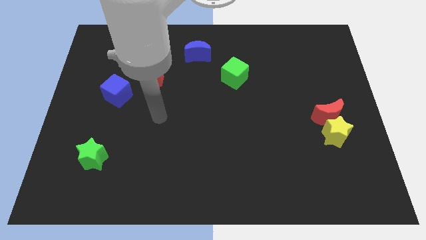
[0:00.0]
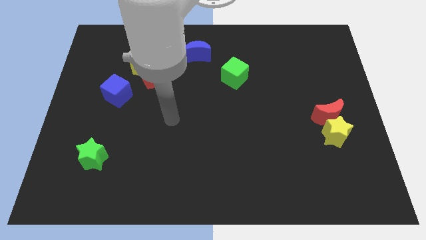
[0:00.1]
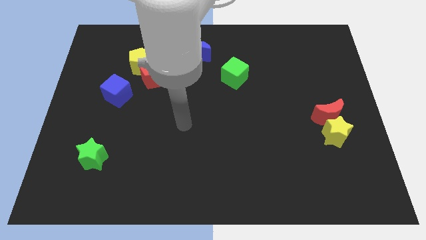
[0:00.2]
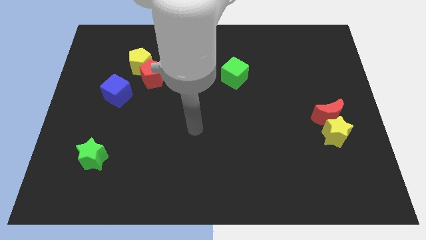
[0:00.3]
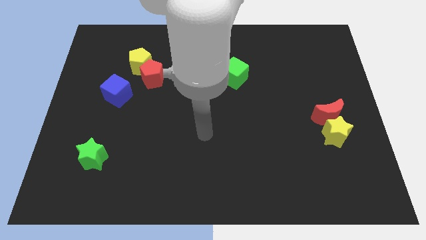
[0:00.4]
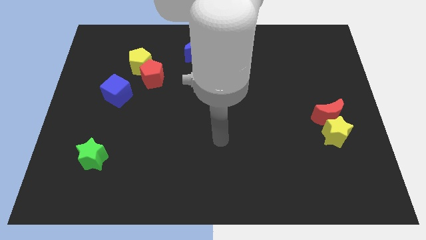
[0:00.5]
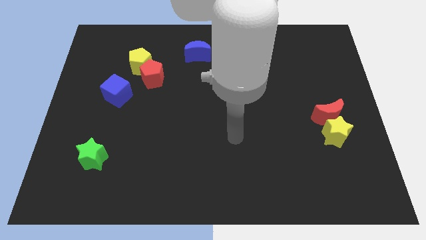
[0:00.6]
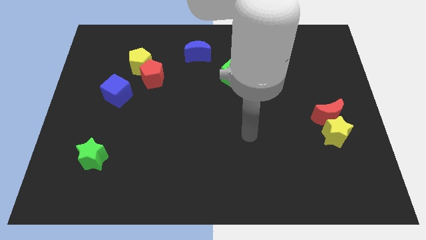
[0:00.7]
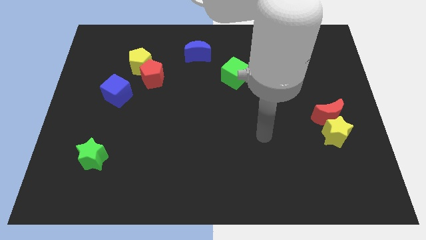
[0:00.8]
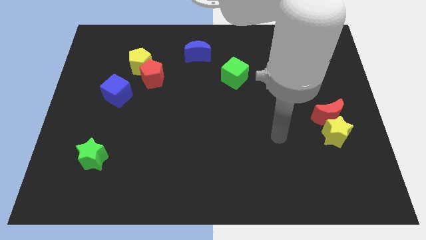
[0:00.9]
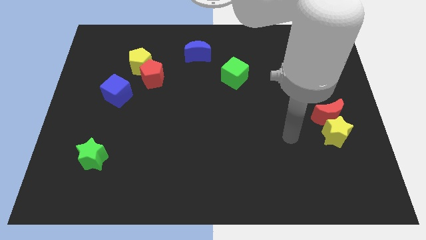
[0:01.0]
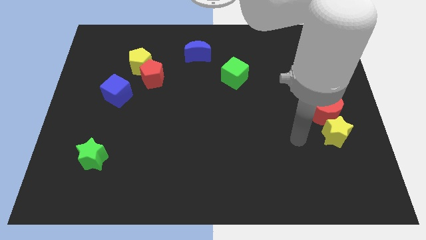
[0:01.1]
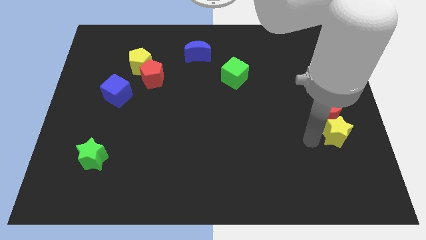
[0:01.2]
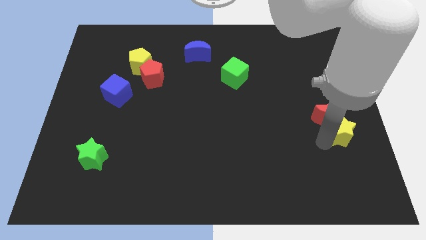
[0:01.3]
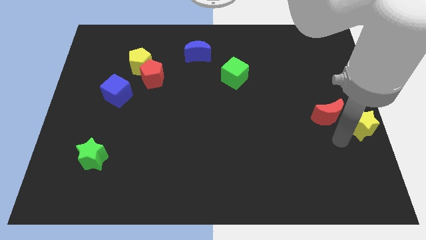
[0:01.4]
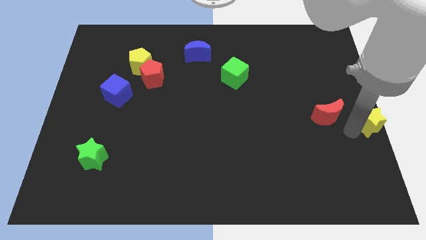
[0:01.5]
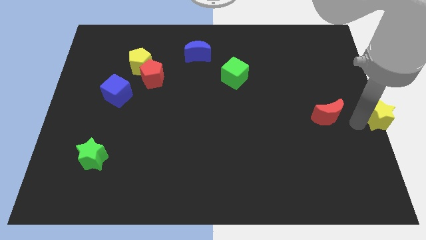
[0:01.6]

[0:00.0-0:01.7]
move the red moon away from the yellow star

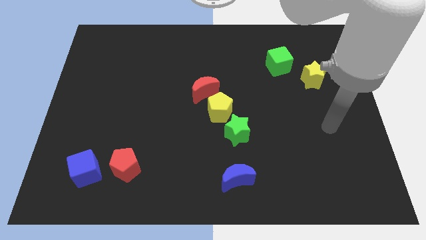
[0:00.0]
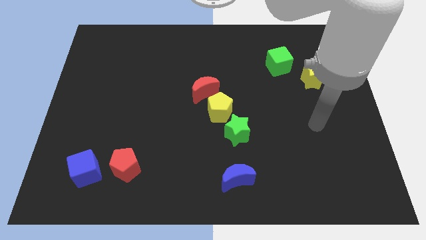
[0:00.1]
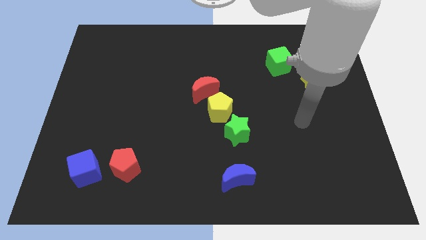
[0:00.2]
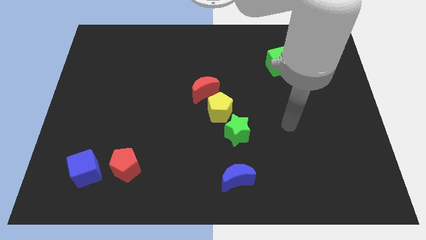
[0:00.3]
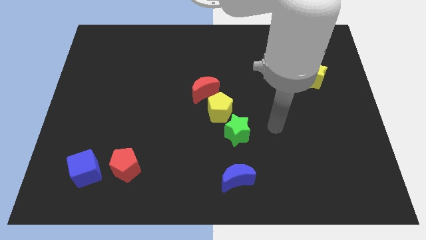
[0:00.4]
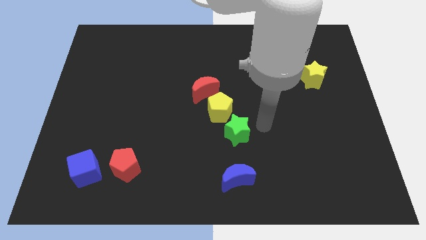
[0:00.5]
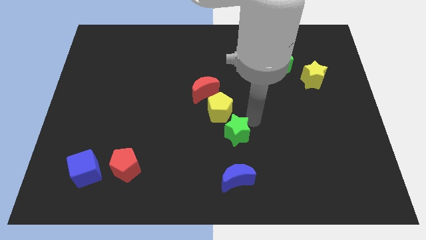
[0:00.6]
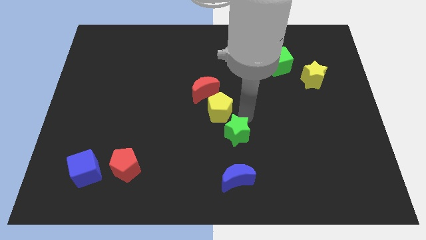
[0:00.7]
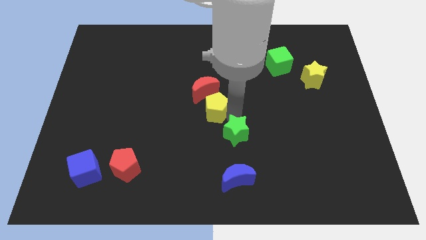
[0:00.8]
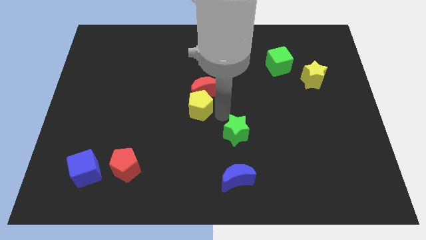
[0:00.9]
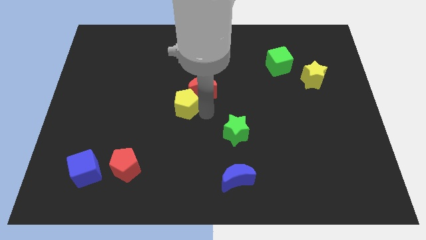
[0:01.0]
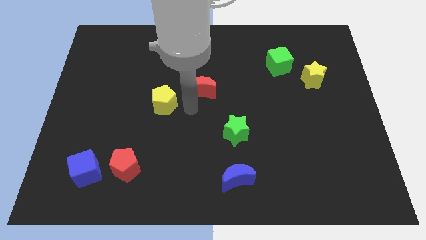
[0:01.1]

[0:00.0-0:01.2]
pull the red moon apart from the yellow pentagon

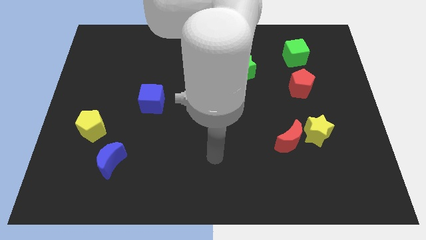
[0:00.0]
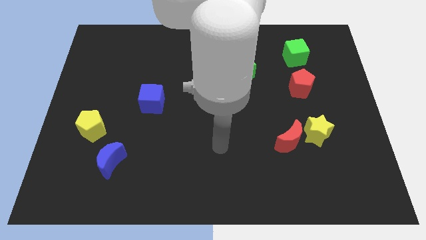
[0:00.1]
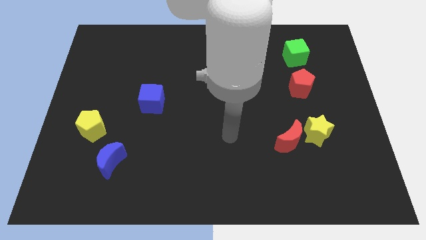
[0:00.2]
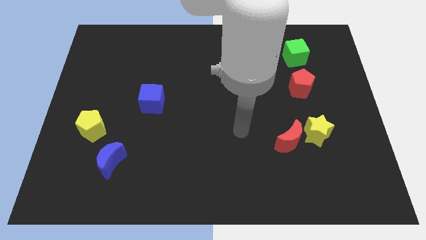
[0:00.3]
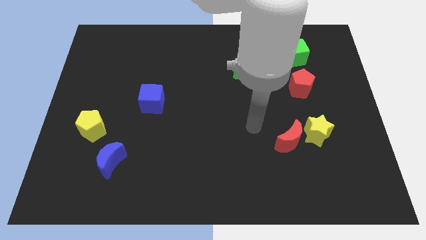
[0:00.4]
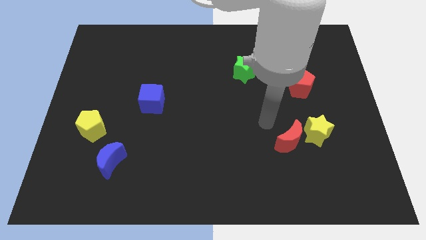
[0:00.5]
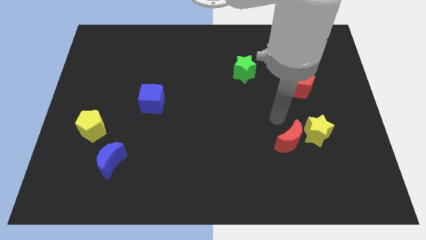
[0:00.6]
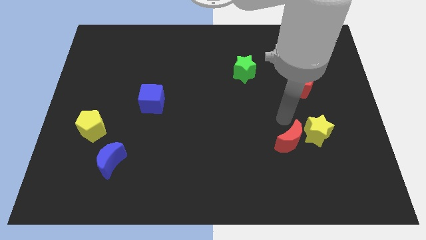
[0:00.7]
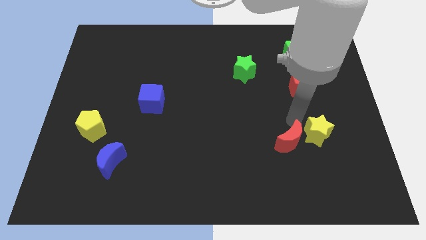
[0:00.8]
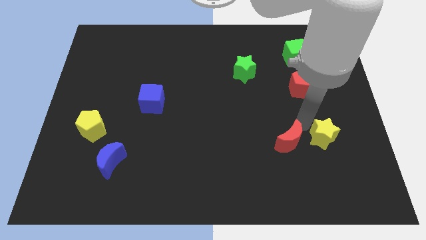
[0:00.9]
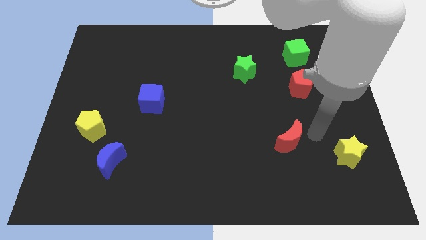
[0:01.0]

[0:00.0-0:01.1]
separate the red moon from the yellow star

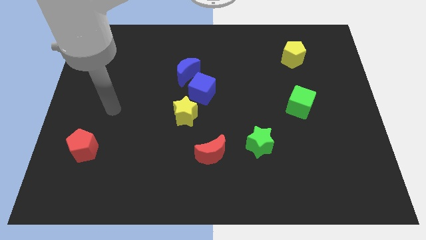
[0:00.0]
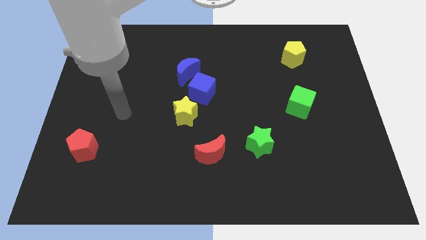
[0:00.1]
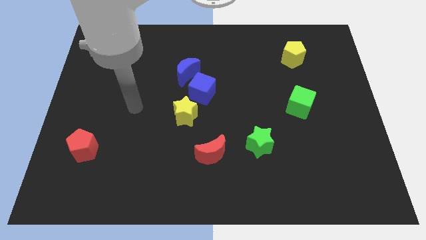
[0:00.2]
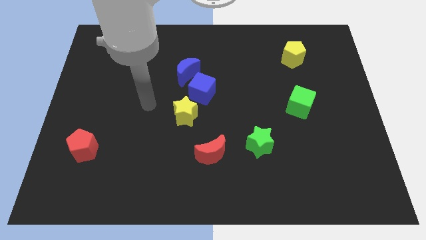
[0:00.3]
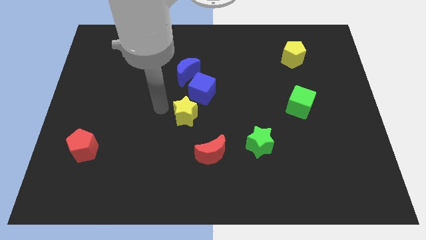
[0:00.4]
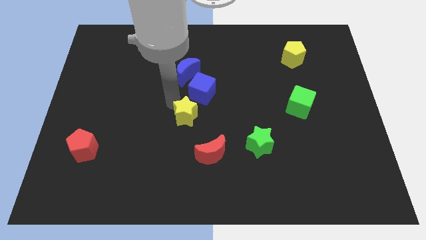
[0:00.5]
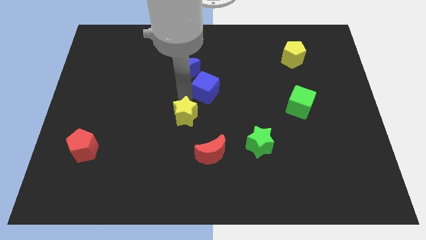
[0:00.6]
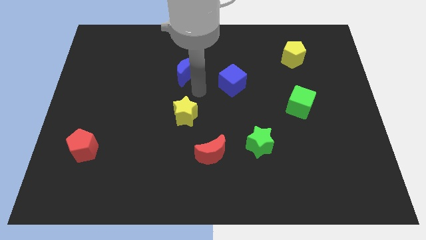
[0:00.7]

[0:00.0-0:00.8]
pull the blue moon apart from the blue cube

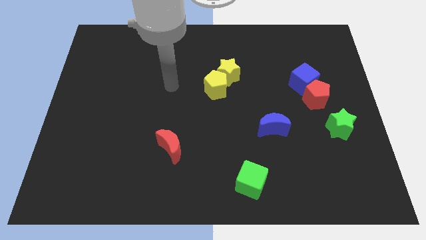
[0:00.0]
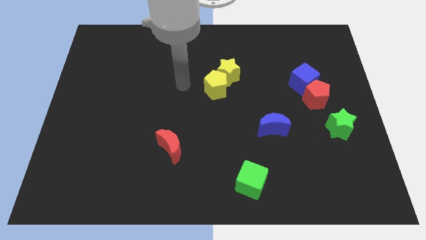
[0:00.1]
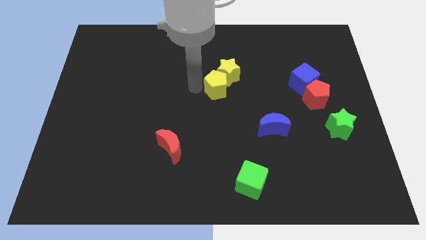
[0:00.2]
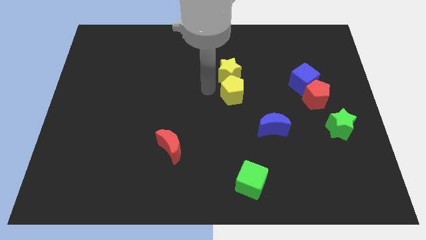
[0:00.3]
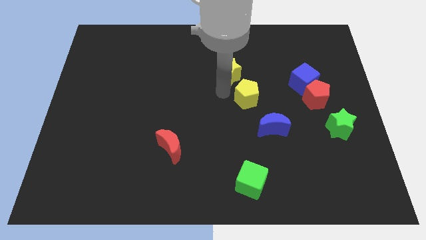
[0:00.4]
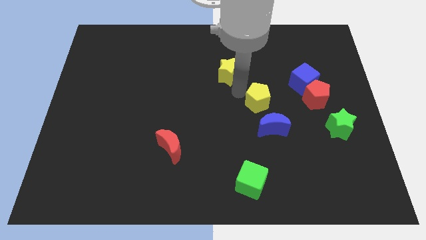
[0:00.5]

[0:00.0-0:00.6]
pull the yellow star apart from the yellow pentagon

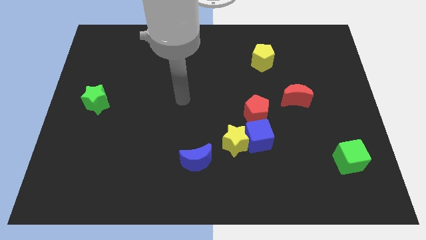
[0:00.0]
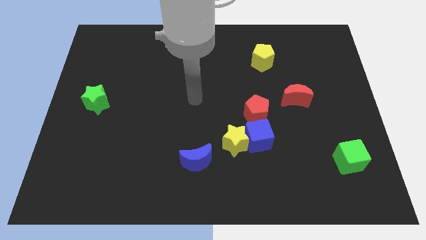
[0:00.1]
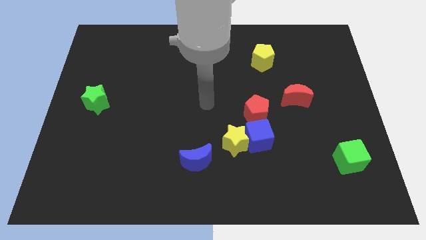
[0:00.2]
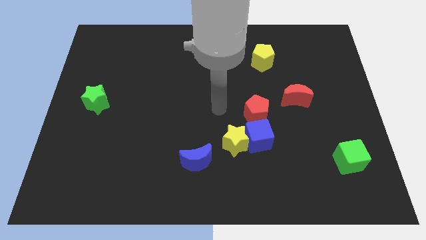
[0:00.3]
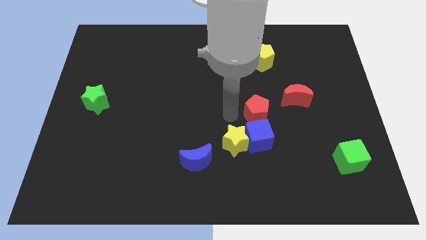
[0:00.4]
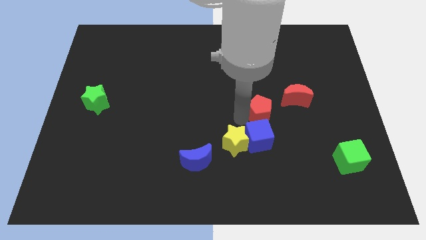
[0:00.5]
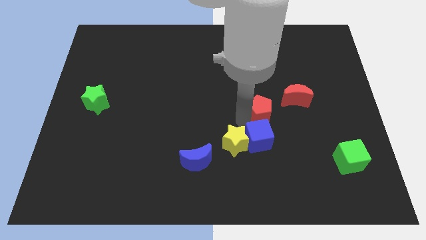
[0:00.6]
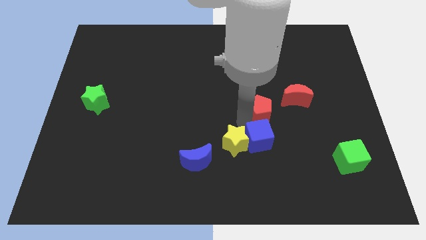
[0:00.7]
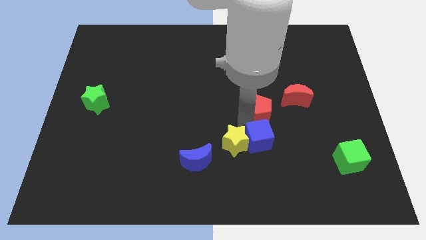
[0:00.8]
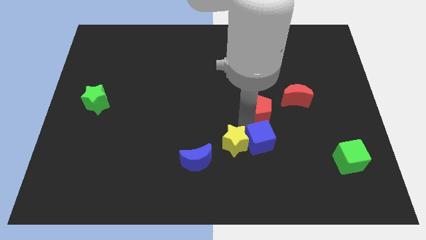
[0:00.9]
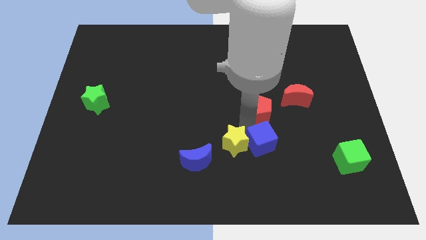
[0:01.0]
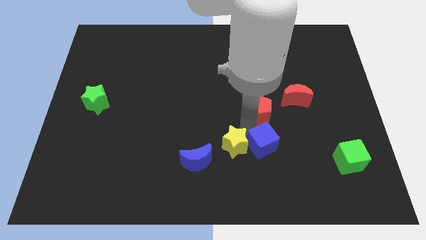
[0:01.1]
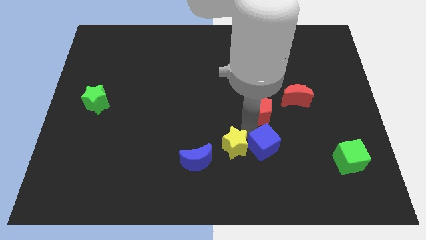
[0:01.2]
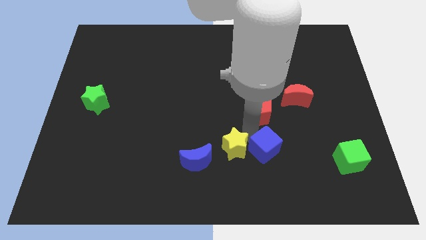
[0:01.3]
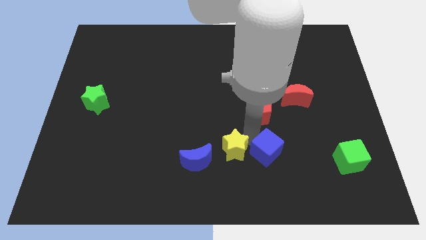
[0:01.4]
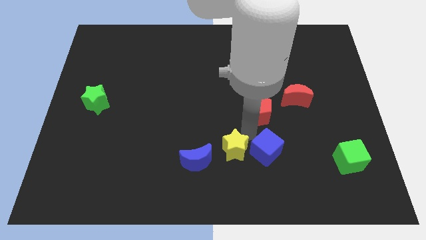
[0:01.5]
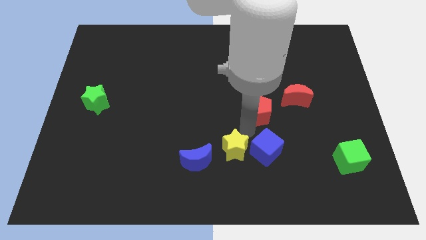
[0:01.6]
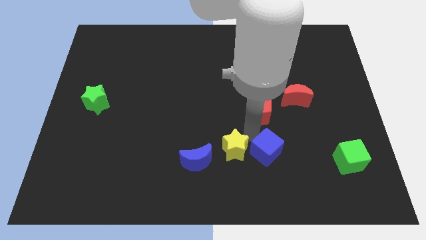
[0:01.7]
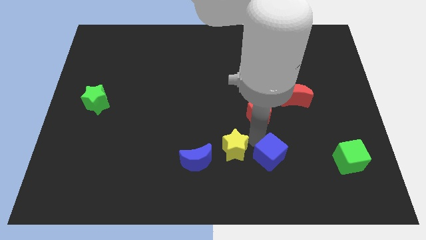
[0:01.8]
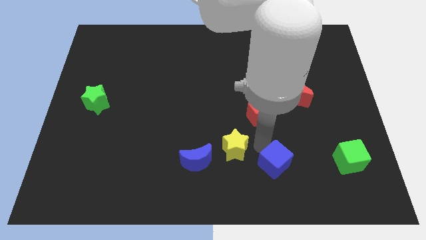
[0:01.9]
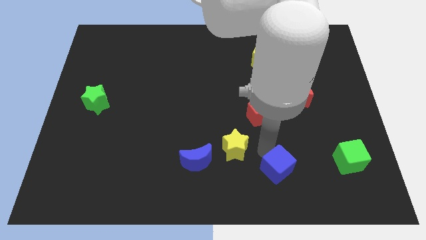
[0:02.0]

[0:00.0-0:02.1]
separate the blue cube from the yellow star and red pentagon

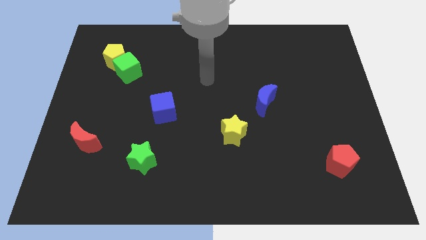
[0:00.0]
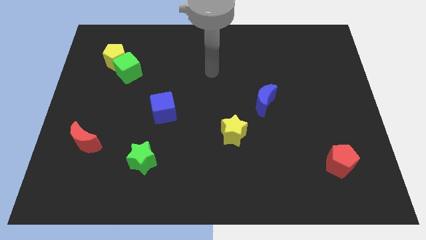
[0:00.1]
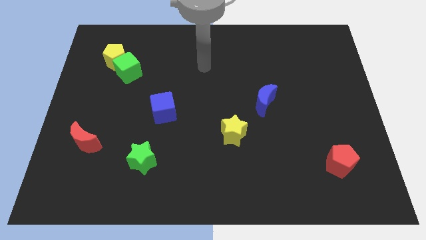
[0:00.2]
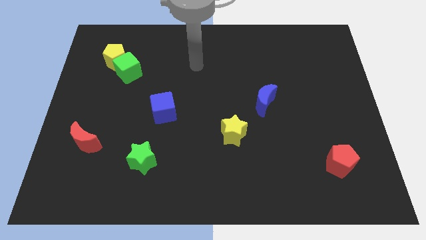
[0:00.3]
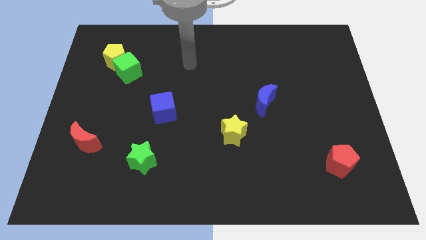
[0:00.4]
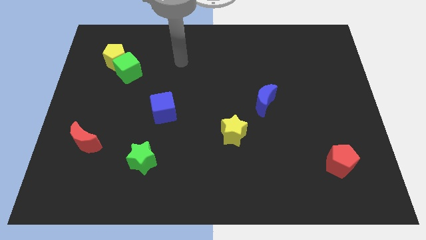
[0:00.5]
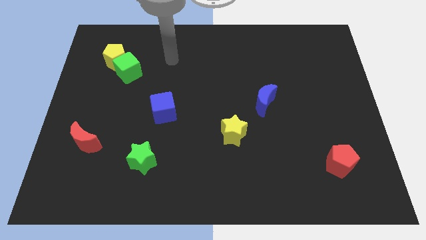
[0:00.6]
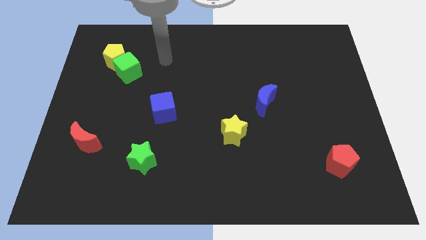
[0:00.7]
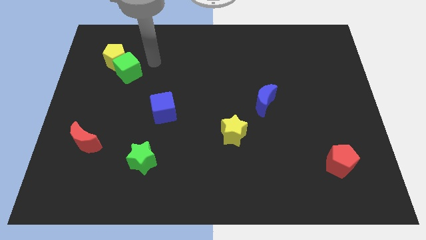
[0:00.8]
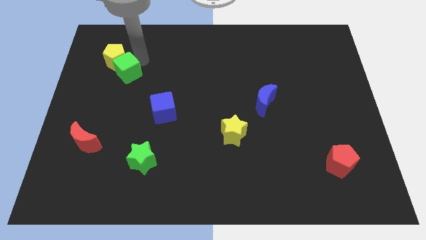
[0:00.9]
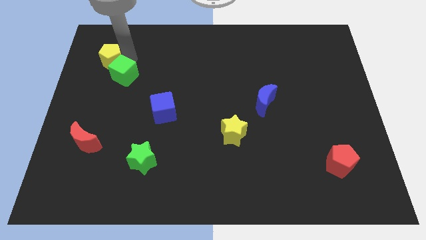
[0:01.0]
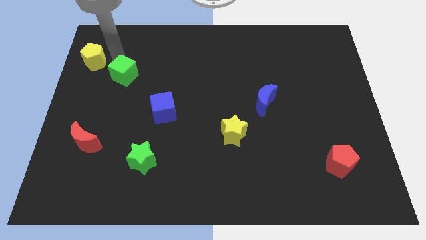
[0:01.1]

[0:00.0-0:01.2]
move the green cube away from the yellow pentagon

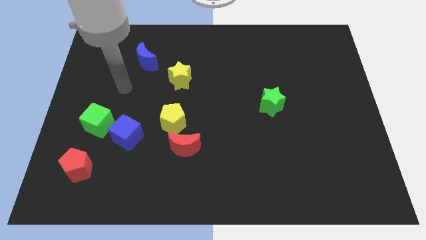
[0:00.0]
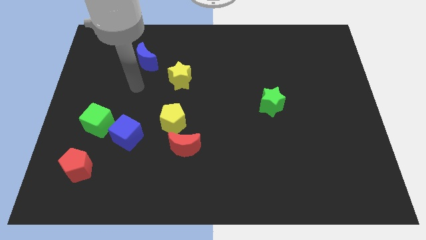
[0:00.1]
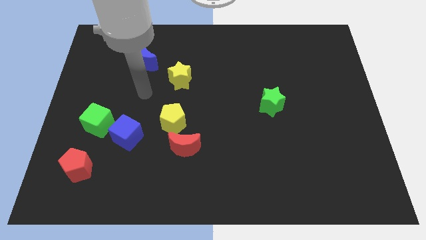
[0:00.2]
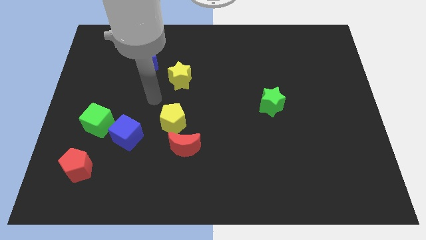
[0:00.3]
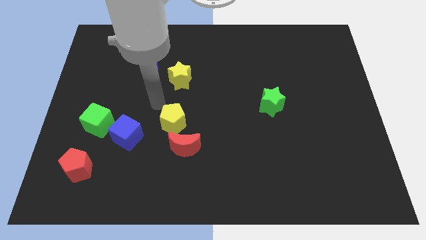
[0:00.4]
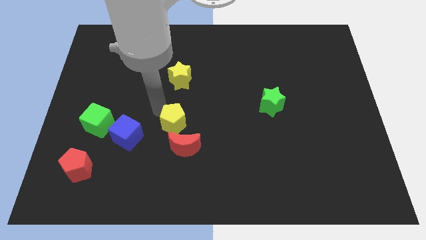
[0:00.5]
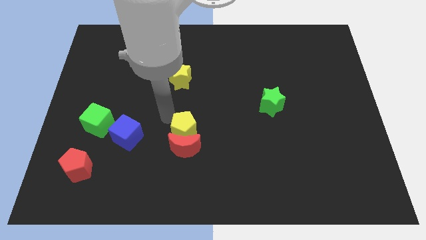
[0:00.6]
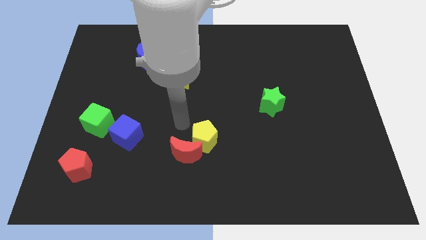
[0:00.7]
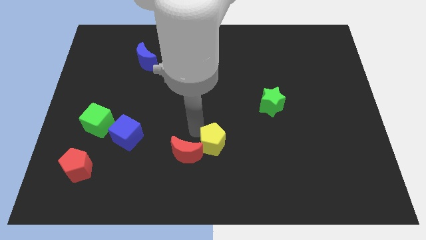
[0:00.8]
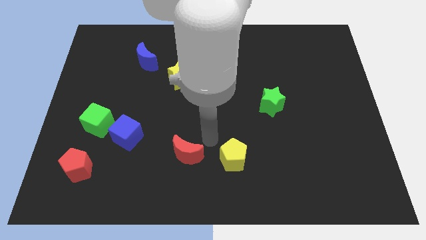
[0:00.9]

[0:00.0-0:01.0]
move the red moon away from the yellow pentagon
